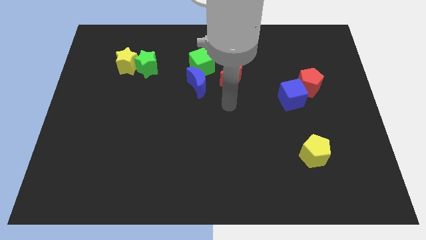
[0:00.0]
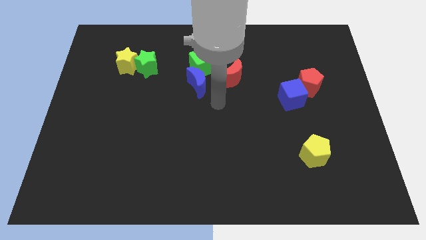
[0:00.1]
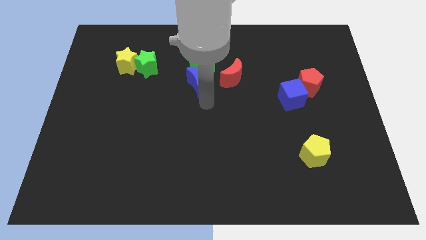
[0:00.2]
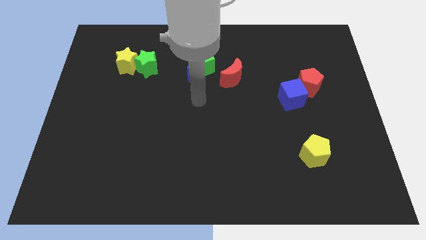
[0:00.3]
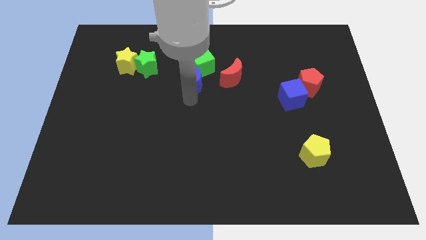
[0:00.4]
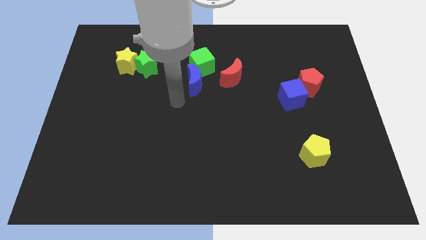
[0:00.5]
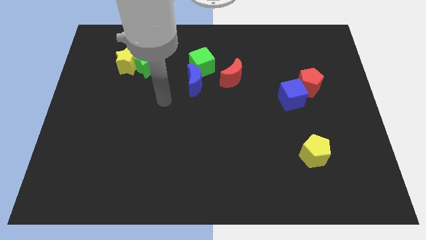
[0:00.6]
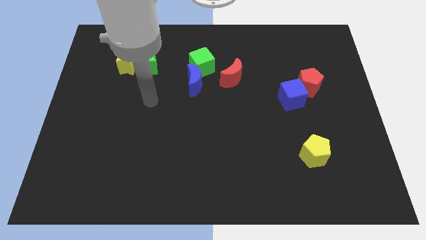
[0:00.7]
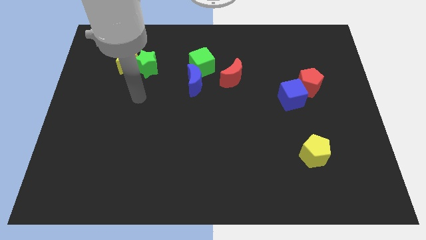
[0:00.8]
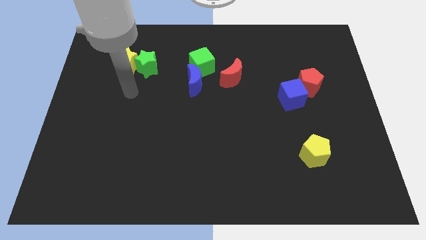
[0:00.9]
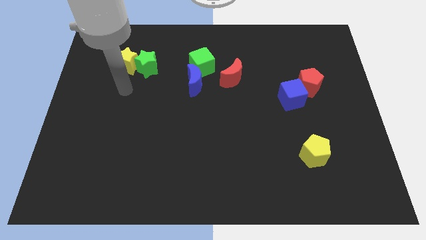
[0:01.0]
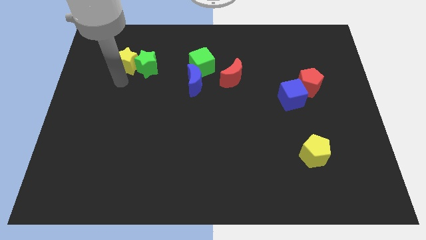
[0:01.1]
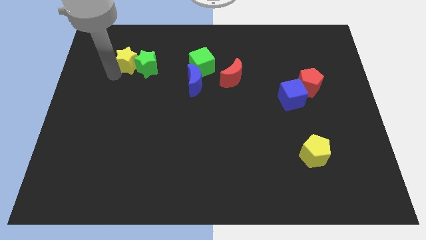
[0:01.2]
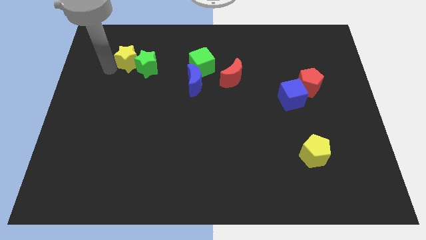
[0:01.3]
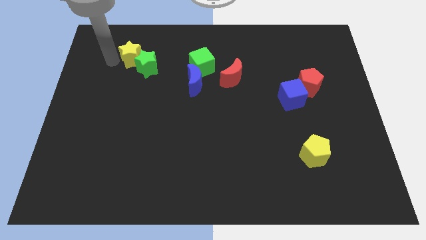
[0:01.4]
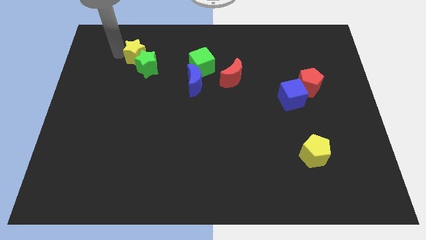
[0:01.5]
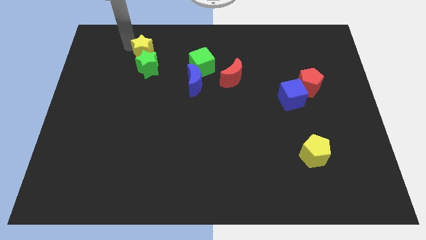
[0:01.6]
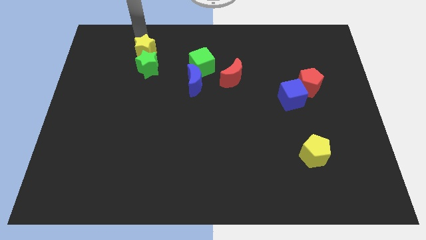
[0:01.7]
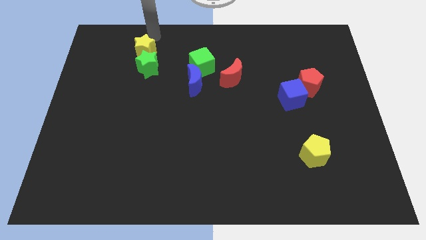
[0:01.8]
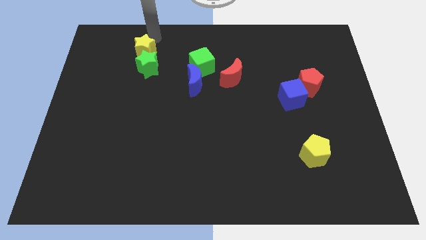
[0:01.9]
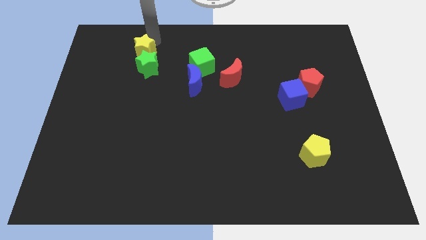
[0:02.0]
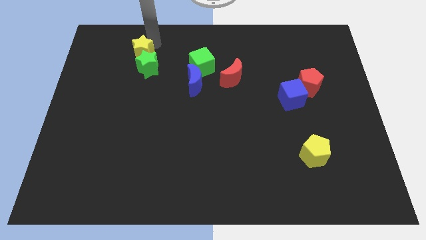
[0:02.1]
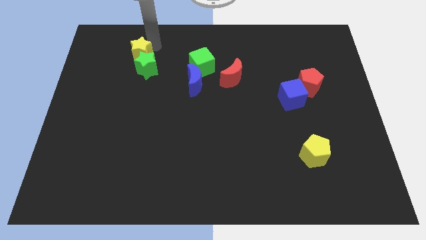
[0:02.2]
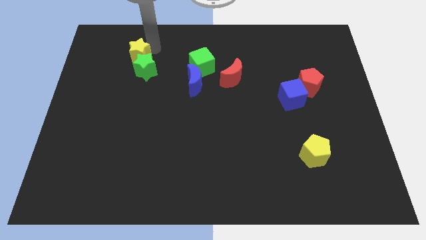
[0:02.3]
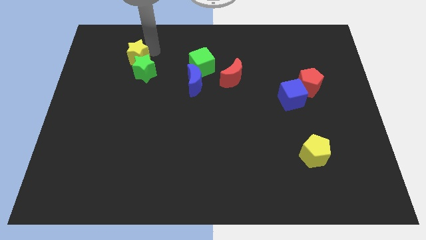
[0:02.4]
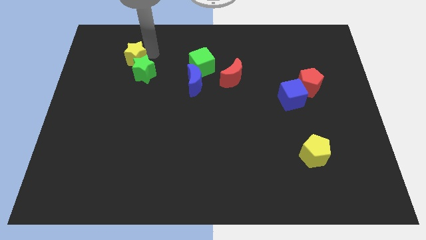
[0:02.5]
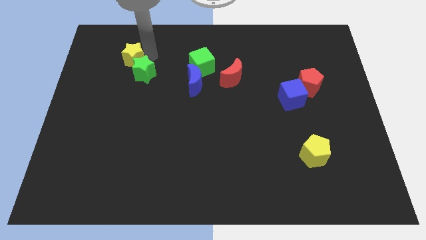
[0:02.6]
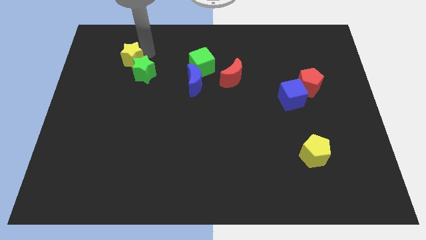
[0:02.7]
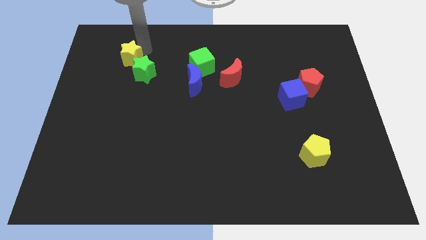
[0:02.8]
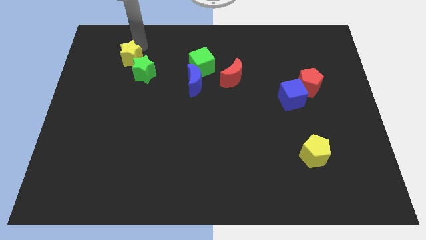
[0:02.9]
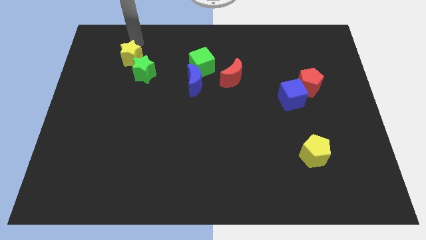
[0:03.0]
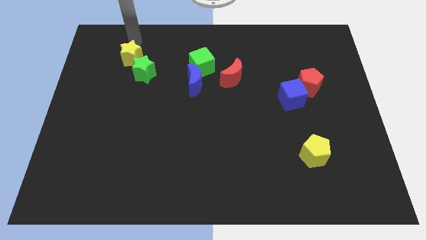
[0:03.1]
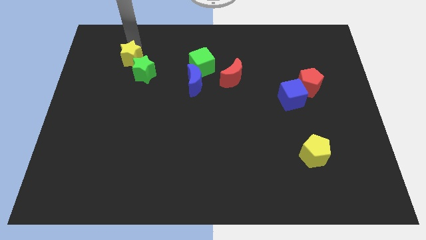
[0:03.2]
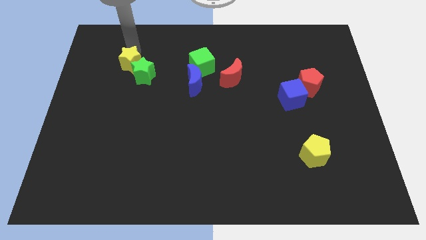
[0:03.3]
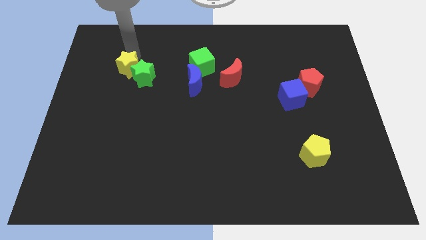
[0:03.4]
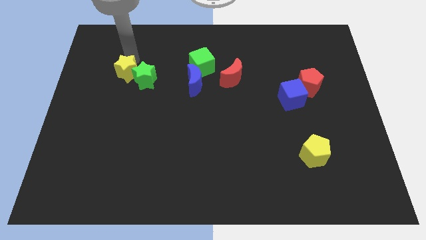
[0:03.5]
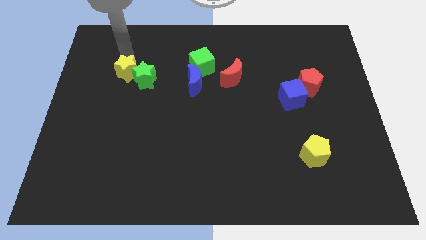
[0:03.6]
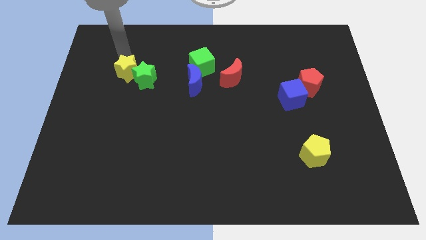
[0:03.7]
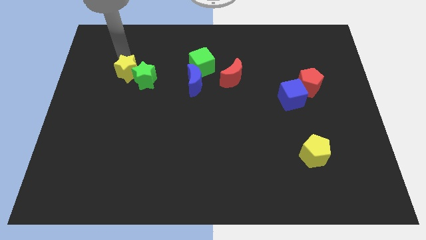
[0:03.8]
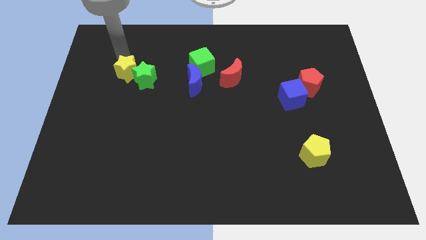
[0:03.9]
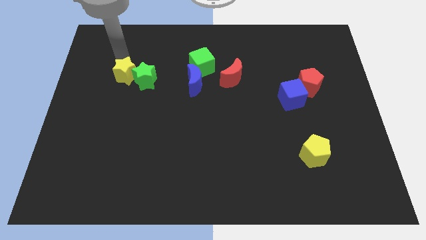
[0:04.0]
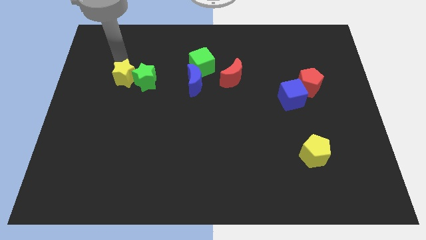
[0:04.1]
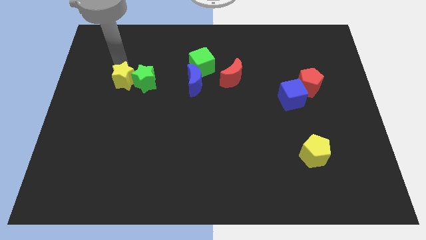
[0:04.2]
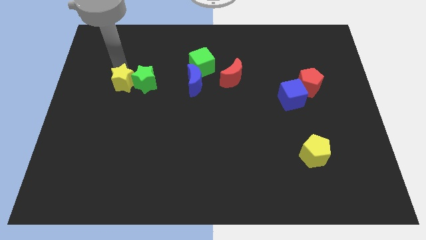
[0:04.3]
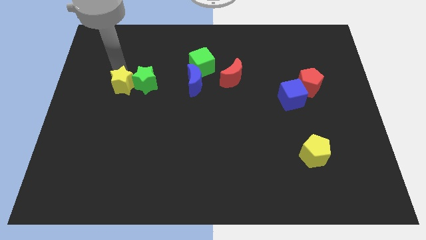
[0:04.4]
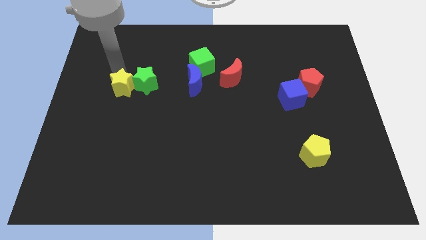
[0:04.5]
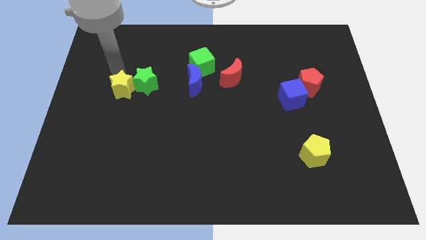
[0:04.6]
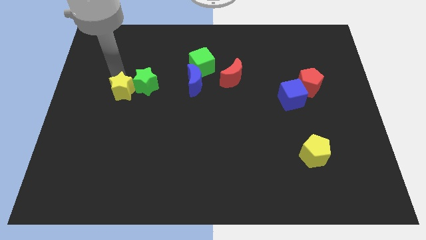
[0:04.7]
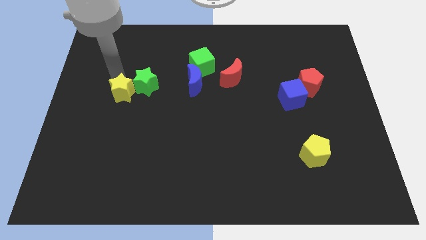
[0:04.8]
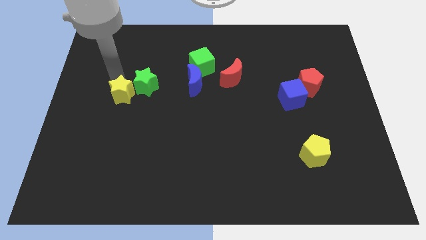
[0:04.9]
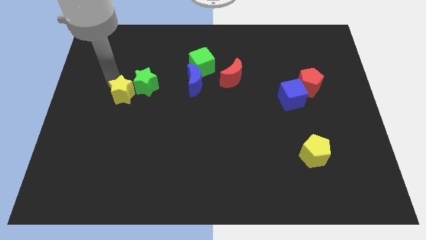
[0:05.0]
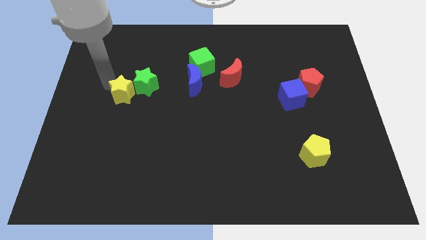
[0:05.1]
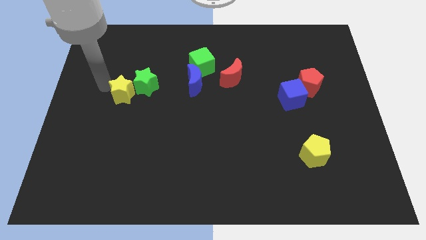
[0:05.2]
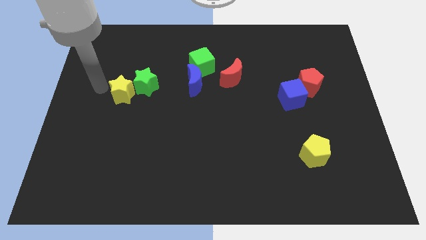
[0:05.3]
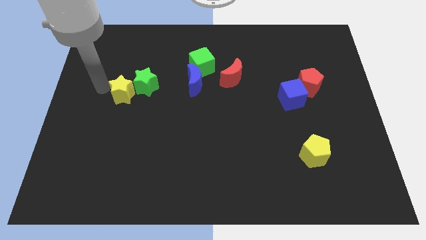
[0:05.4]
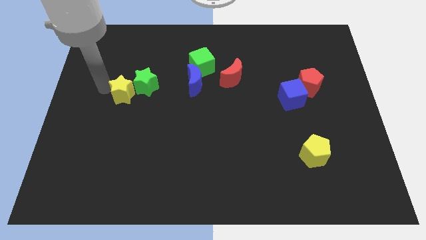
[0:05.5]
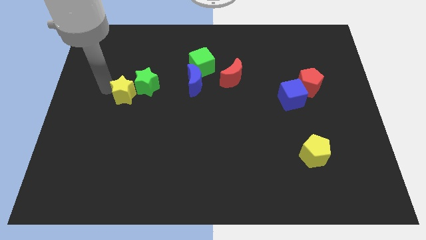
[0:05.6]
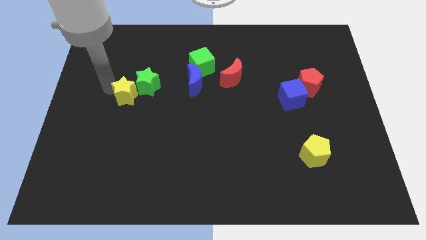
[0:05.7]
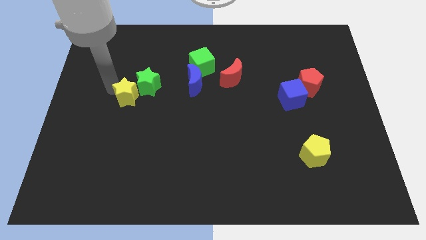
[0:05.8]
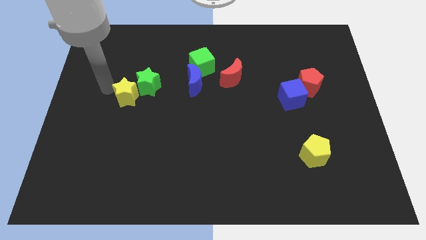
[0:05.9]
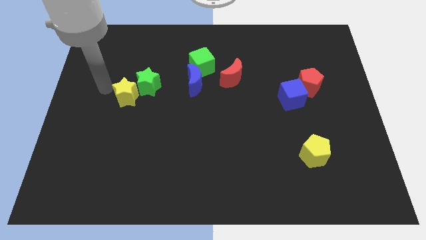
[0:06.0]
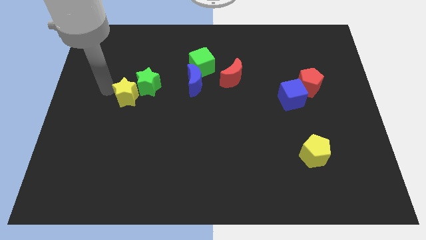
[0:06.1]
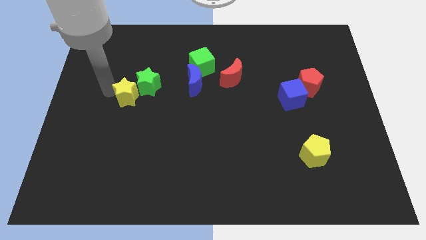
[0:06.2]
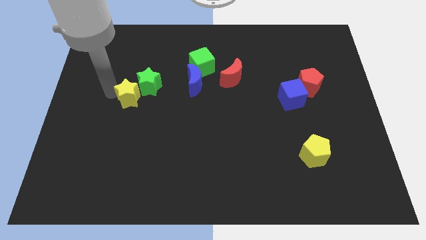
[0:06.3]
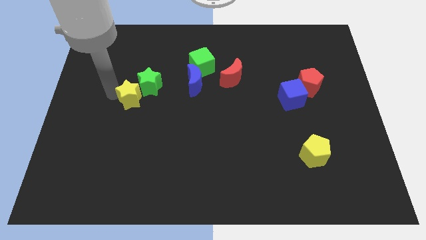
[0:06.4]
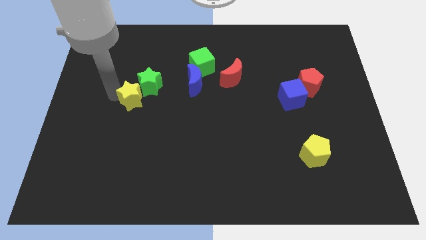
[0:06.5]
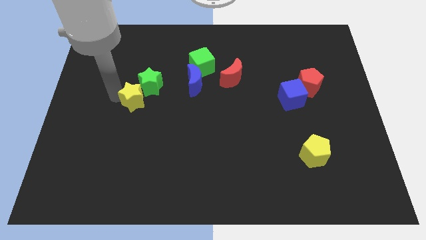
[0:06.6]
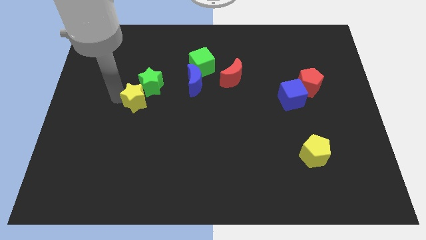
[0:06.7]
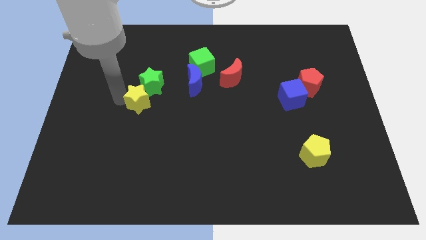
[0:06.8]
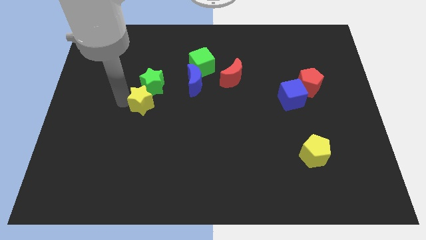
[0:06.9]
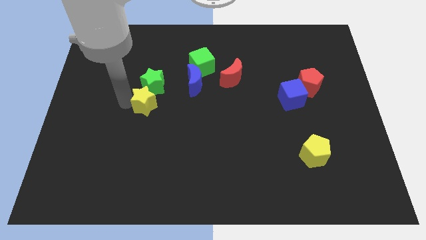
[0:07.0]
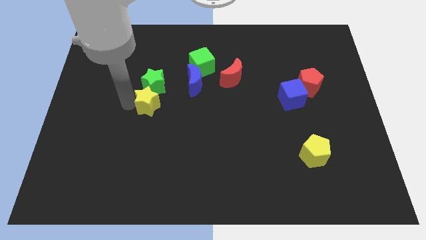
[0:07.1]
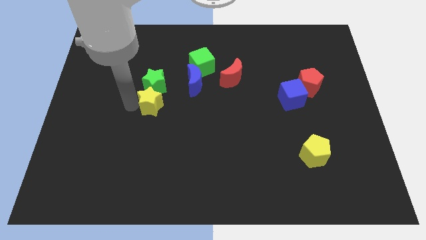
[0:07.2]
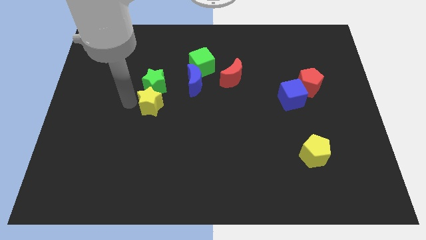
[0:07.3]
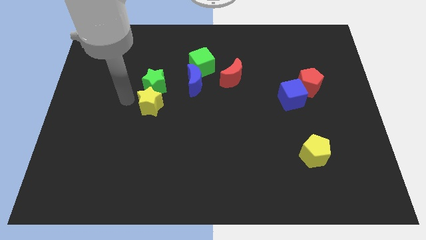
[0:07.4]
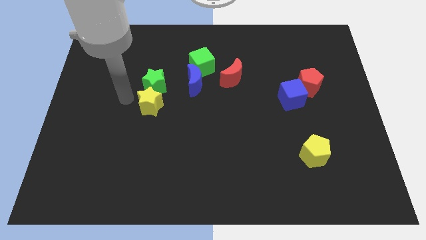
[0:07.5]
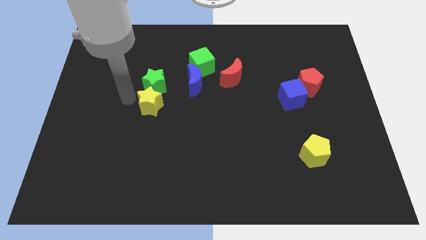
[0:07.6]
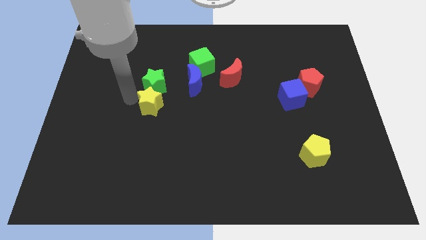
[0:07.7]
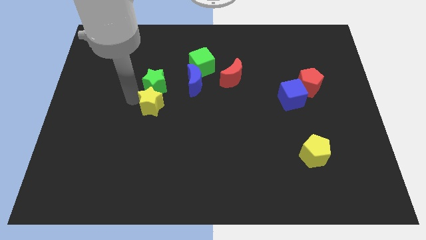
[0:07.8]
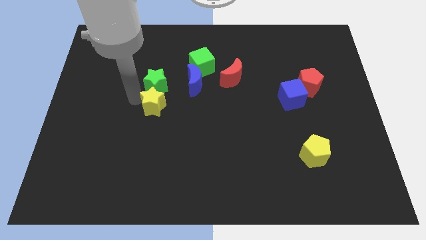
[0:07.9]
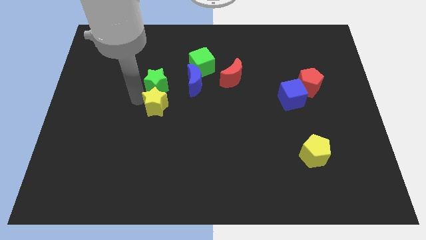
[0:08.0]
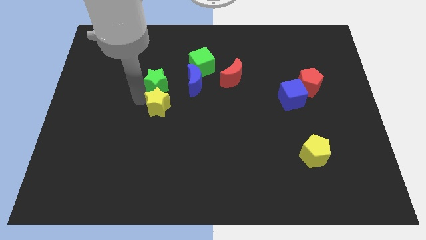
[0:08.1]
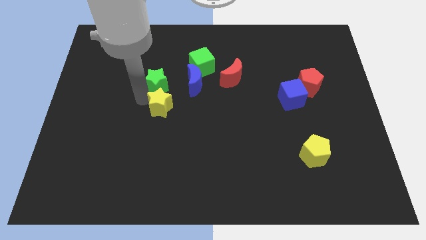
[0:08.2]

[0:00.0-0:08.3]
move the yellow star to the center
